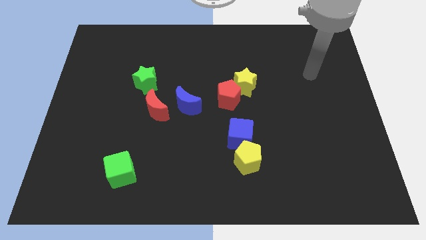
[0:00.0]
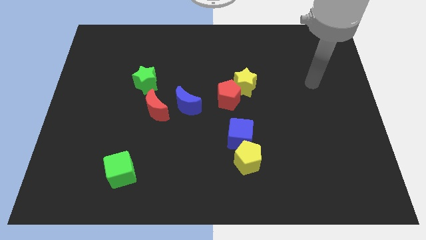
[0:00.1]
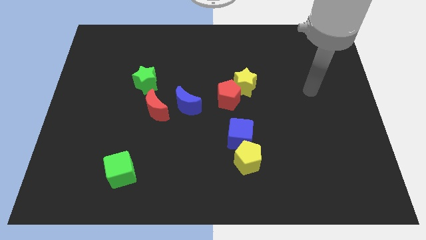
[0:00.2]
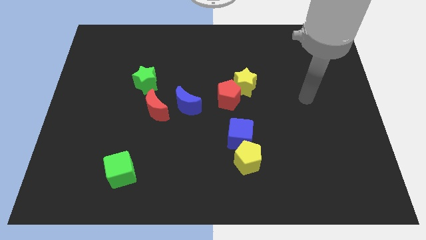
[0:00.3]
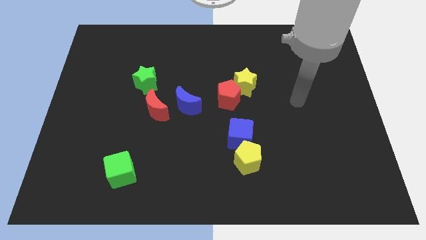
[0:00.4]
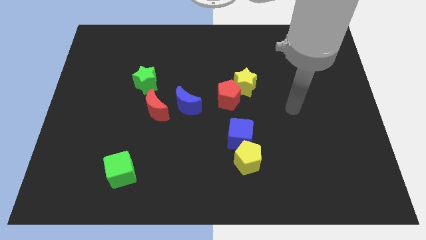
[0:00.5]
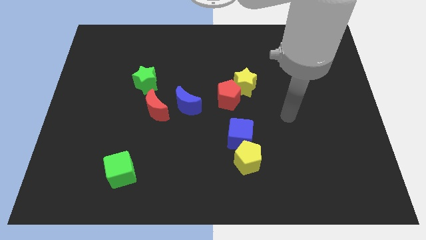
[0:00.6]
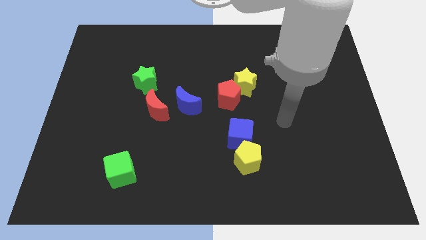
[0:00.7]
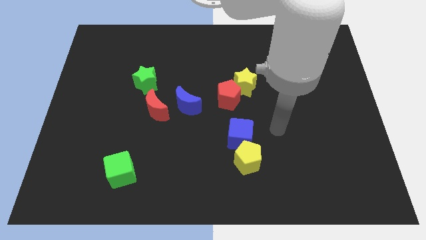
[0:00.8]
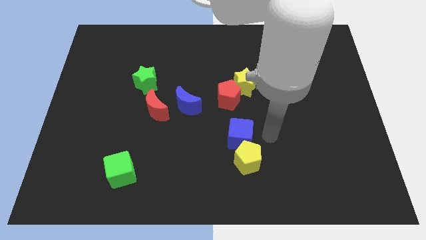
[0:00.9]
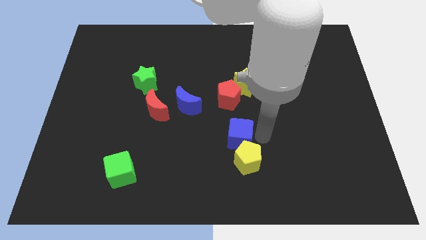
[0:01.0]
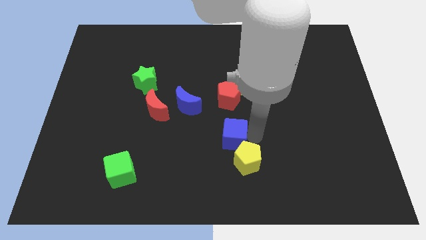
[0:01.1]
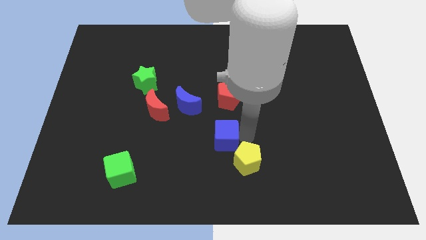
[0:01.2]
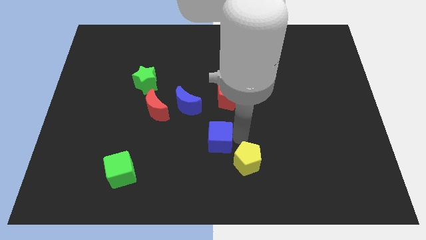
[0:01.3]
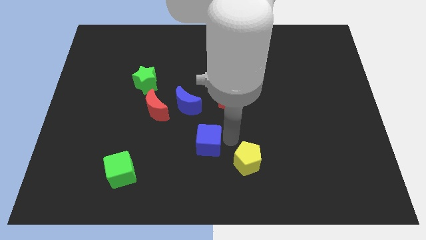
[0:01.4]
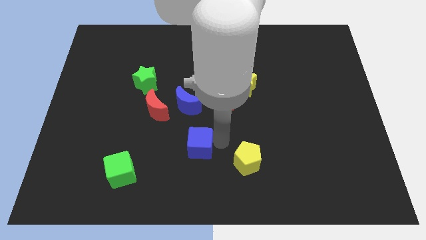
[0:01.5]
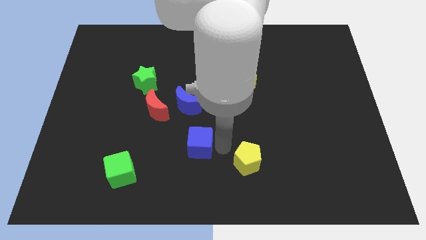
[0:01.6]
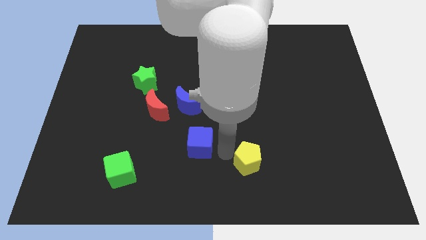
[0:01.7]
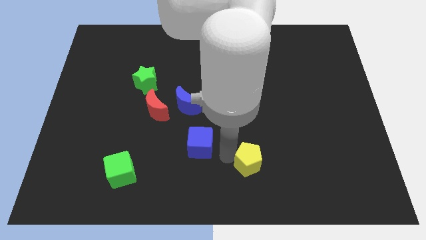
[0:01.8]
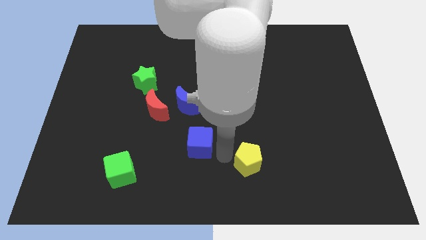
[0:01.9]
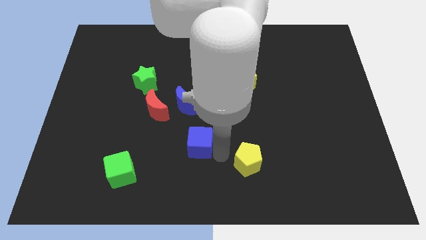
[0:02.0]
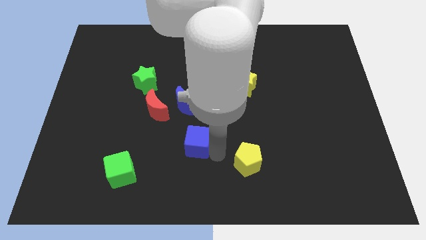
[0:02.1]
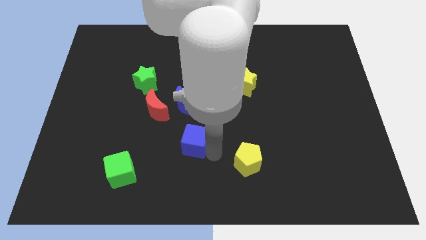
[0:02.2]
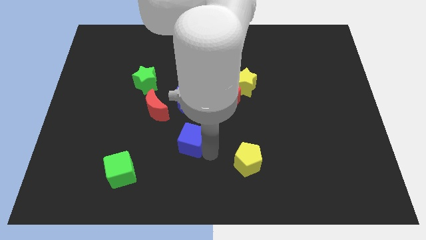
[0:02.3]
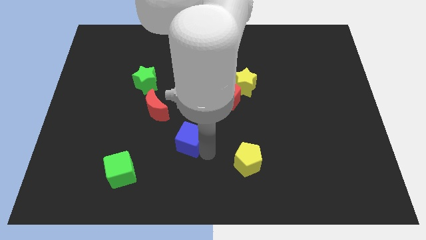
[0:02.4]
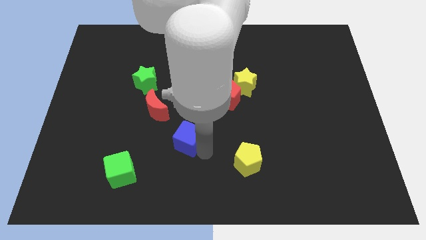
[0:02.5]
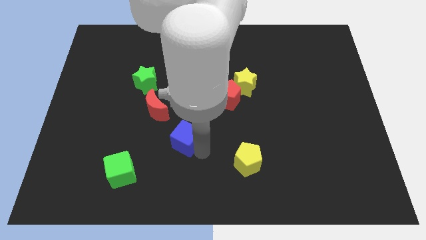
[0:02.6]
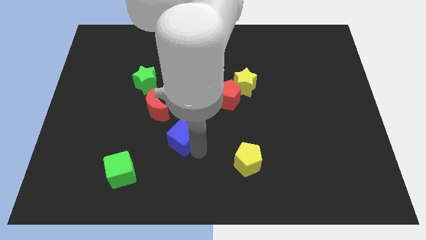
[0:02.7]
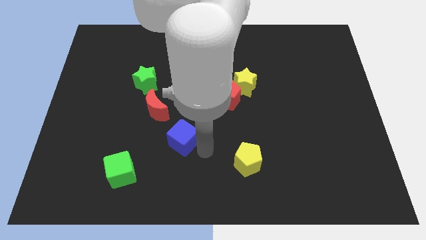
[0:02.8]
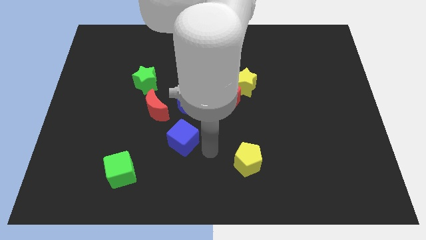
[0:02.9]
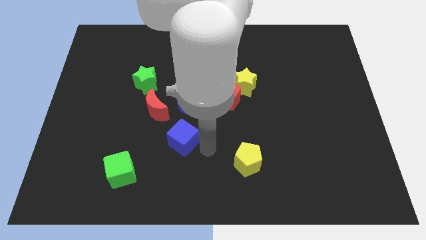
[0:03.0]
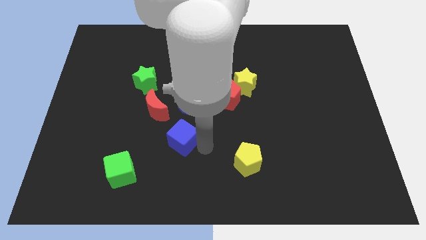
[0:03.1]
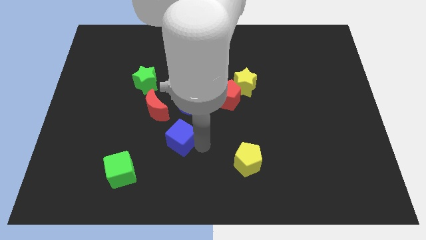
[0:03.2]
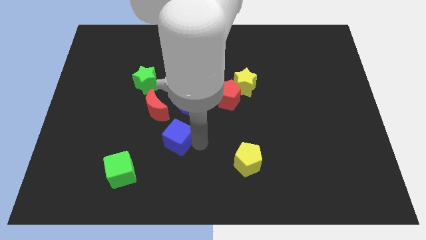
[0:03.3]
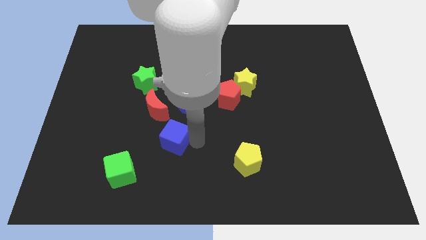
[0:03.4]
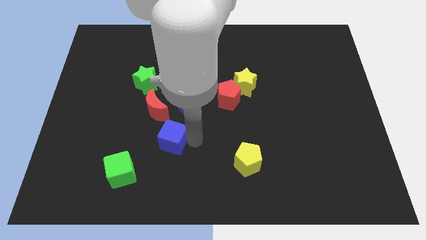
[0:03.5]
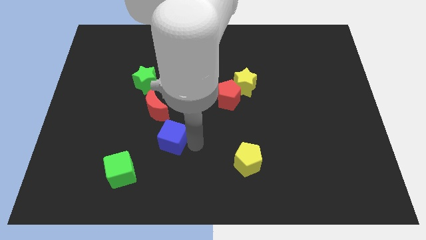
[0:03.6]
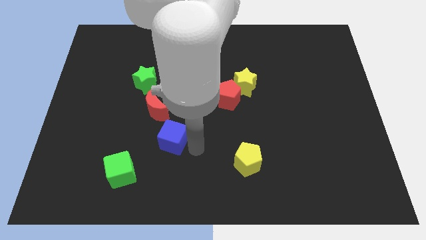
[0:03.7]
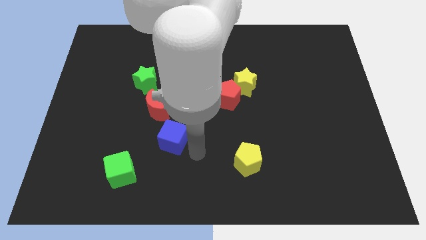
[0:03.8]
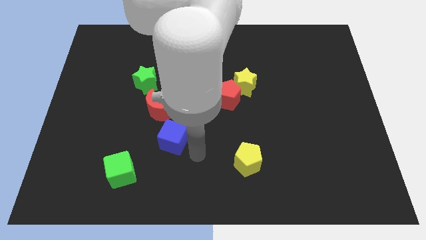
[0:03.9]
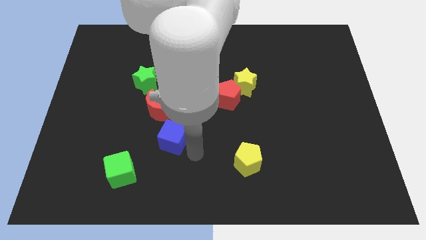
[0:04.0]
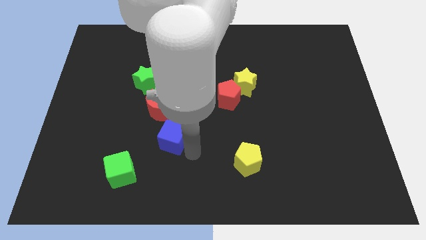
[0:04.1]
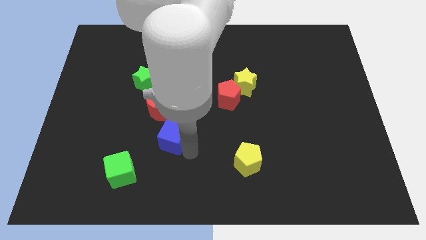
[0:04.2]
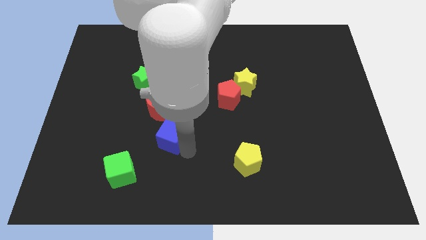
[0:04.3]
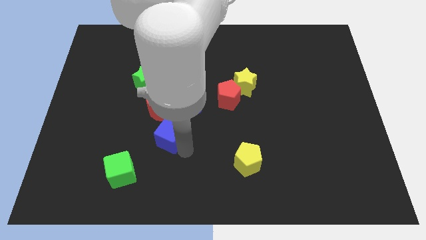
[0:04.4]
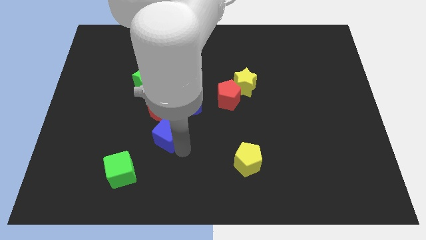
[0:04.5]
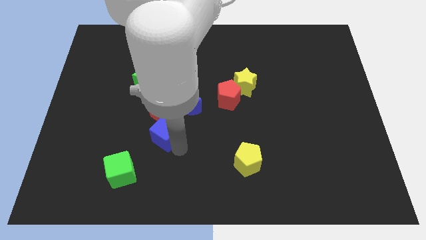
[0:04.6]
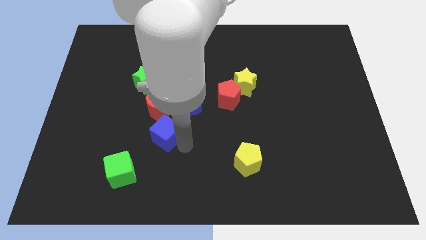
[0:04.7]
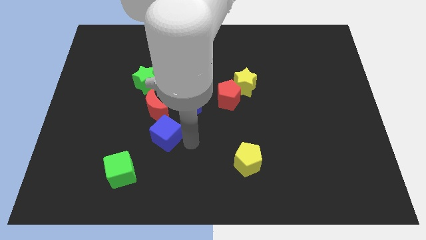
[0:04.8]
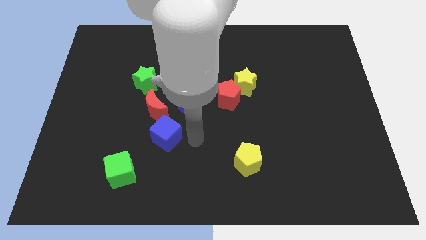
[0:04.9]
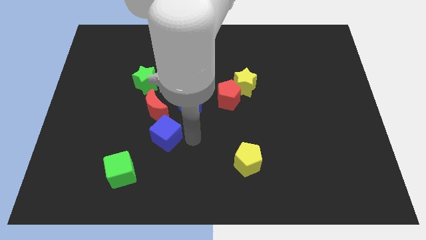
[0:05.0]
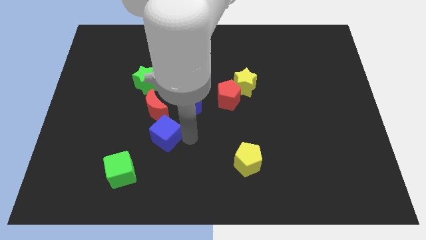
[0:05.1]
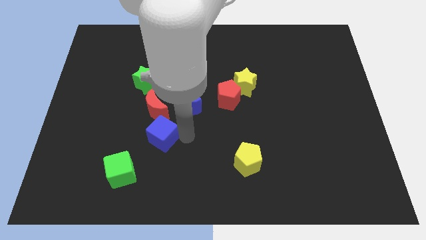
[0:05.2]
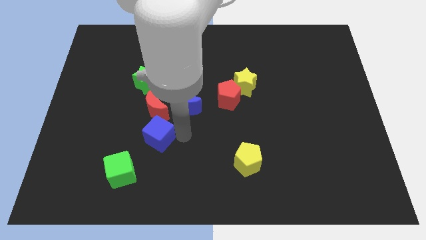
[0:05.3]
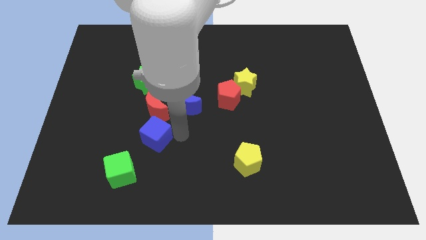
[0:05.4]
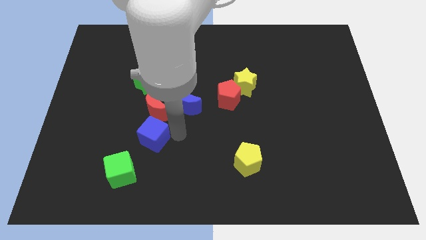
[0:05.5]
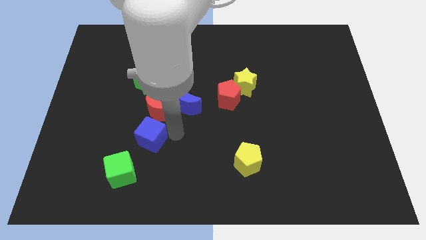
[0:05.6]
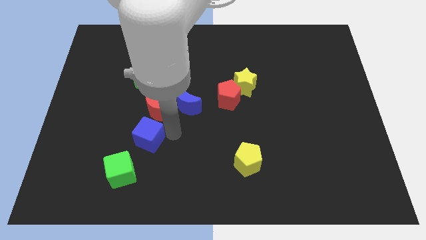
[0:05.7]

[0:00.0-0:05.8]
push the blue cube left

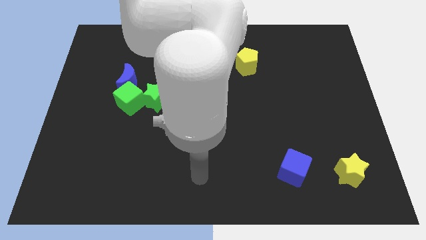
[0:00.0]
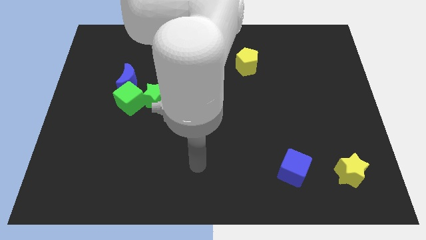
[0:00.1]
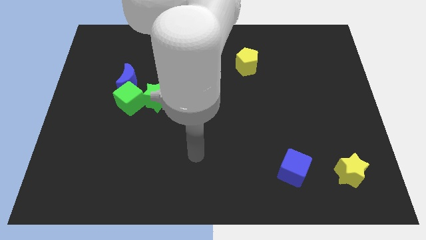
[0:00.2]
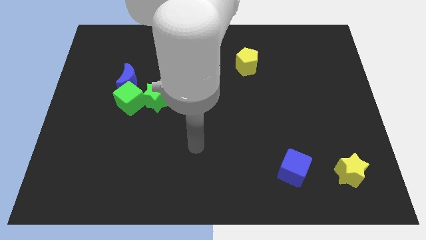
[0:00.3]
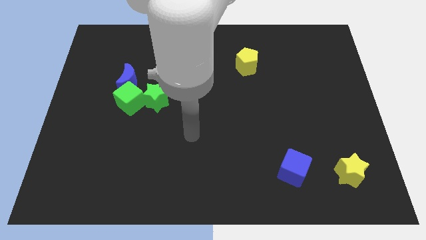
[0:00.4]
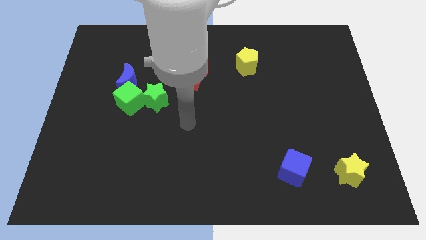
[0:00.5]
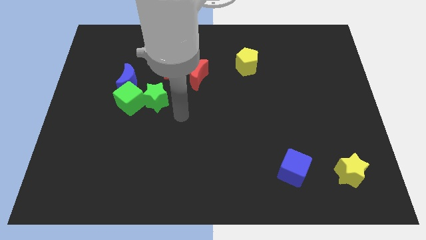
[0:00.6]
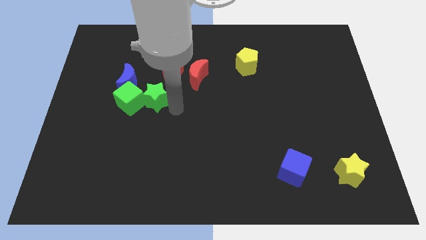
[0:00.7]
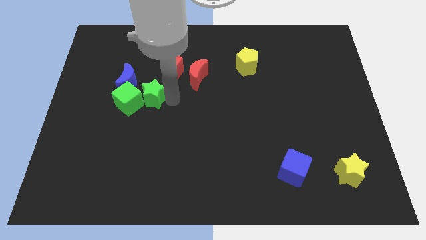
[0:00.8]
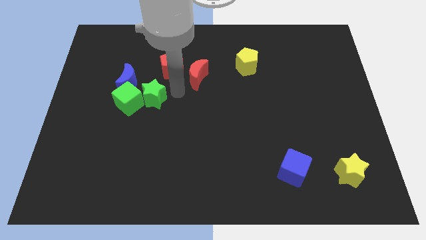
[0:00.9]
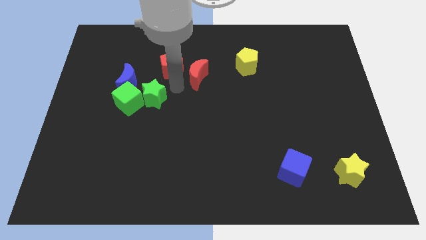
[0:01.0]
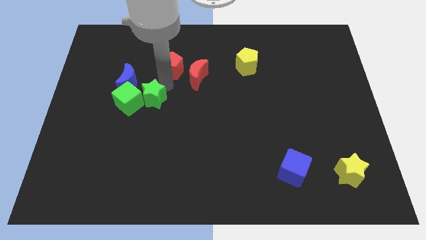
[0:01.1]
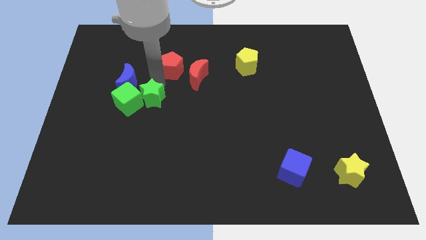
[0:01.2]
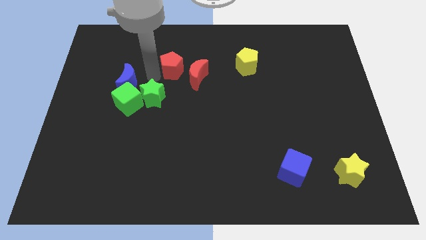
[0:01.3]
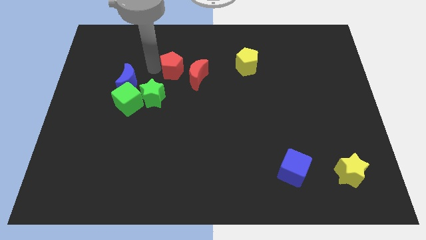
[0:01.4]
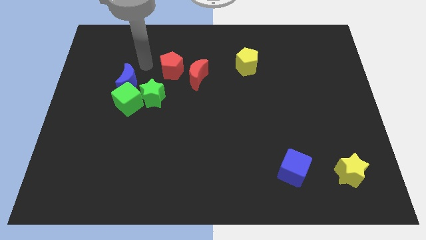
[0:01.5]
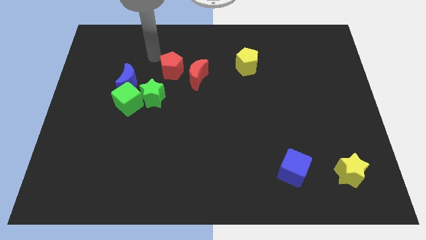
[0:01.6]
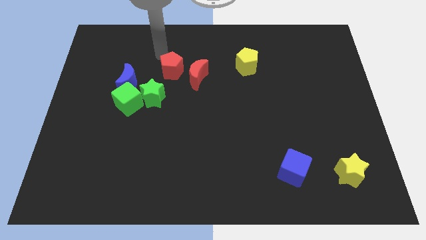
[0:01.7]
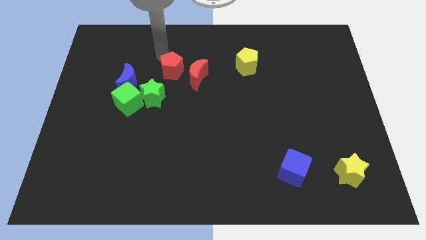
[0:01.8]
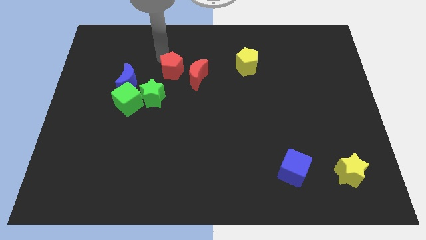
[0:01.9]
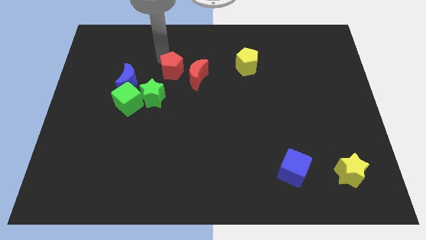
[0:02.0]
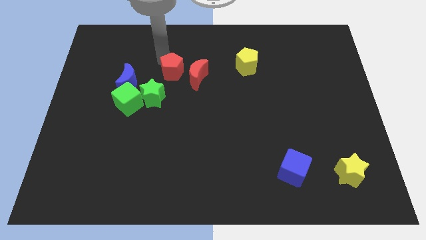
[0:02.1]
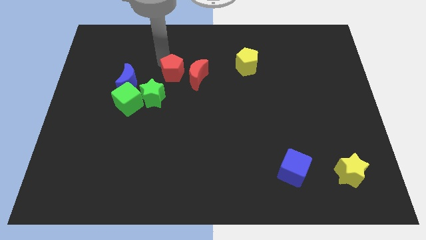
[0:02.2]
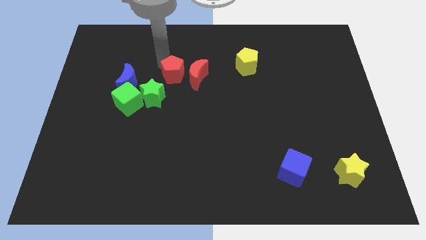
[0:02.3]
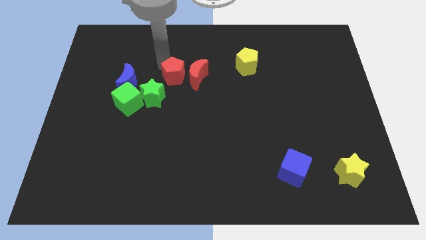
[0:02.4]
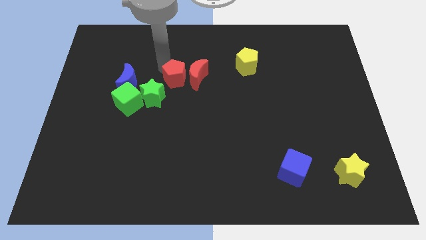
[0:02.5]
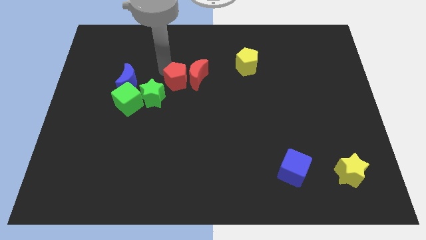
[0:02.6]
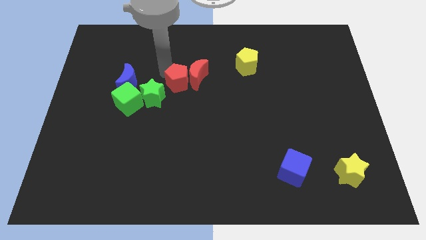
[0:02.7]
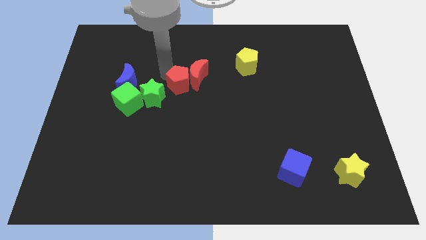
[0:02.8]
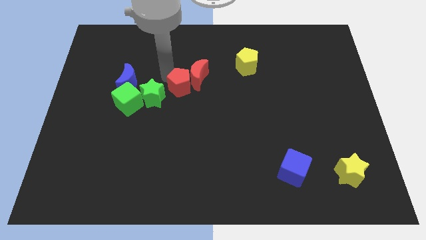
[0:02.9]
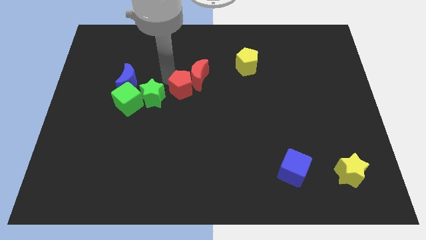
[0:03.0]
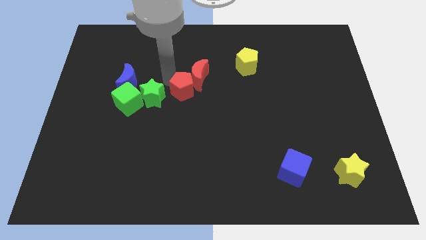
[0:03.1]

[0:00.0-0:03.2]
slide the red pentagon slightly diagonally down and right
